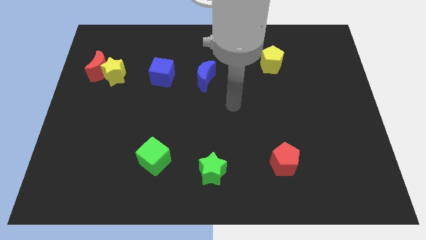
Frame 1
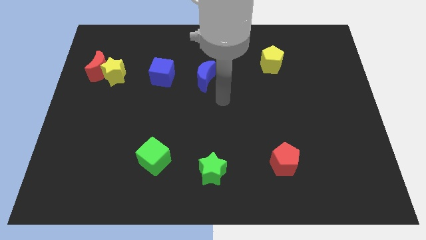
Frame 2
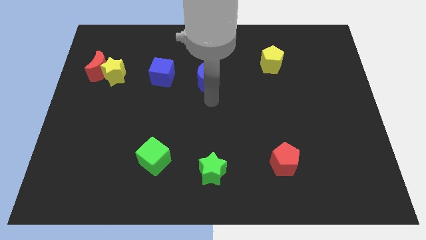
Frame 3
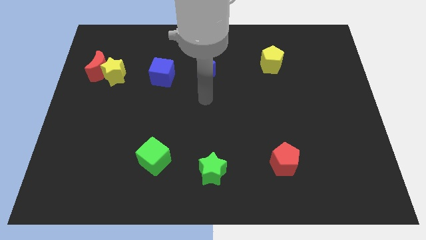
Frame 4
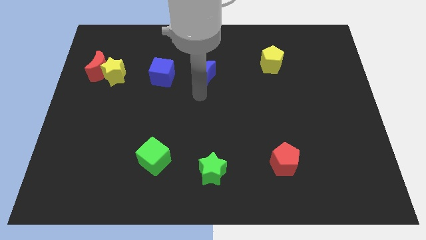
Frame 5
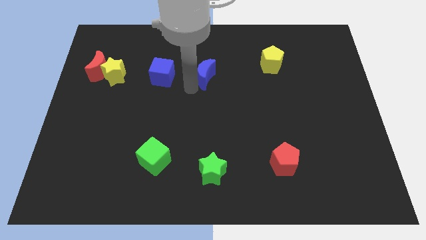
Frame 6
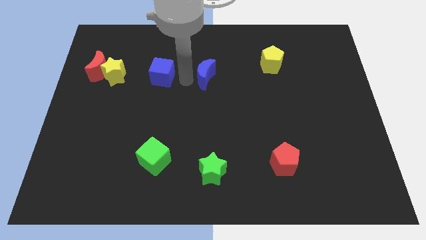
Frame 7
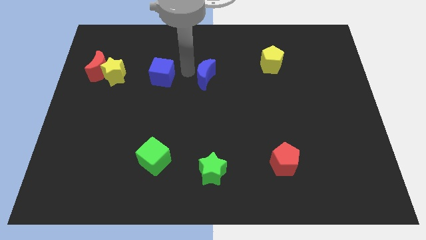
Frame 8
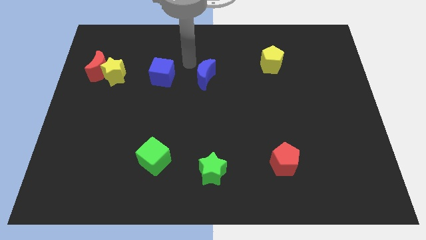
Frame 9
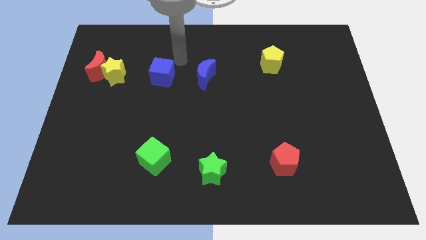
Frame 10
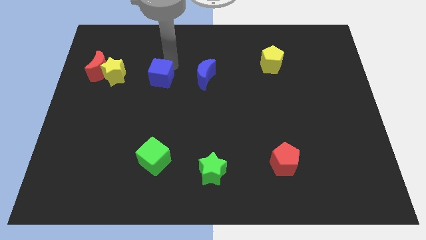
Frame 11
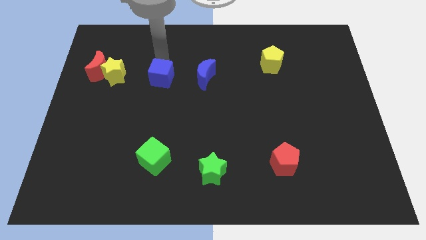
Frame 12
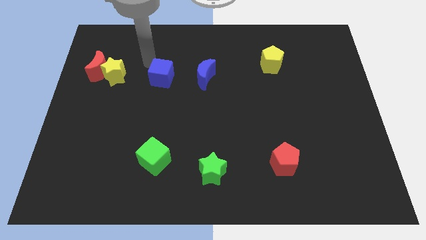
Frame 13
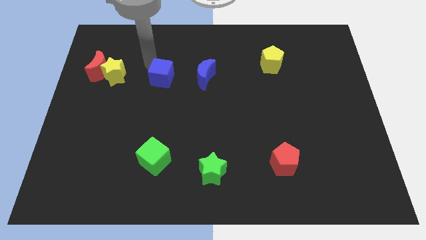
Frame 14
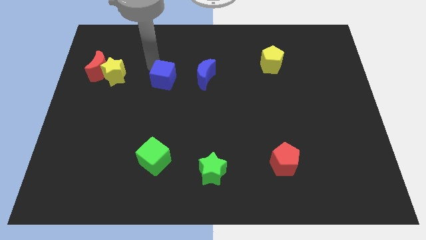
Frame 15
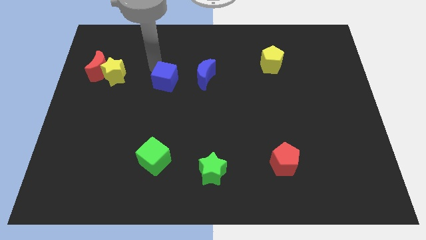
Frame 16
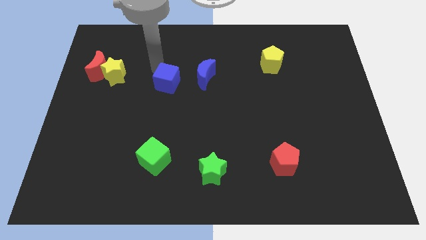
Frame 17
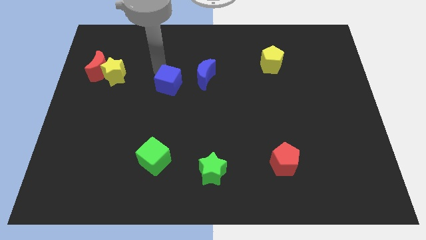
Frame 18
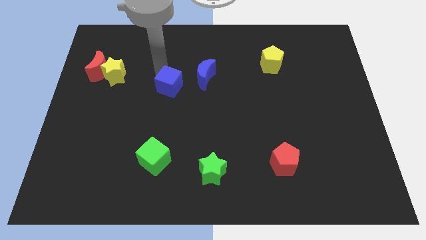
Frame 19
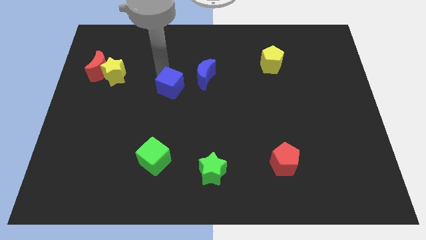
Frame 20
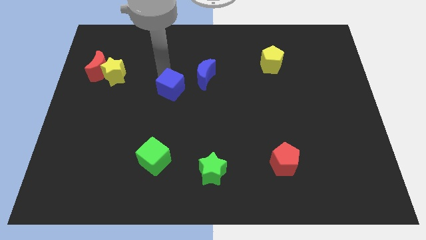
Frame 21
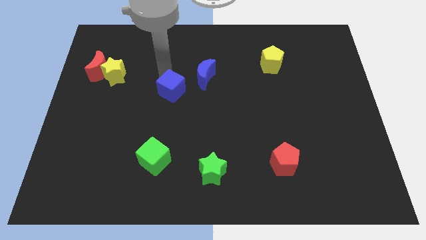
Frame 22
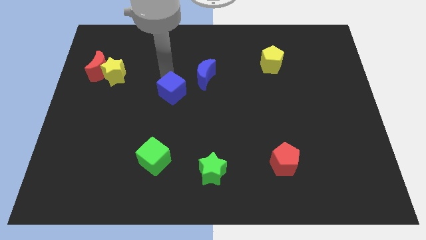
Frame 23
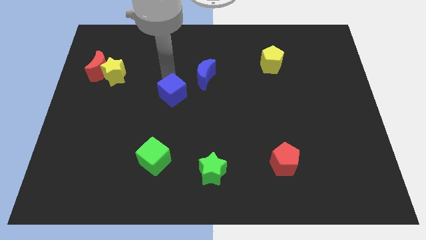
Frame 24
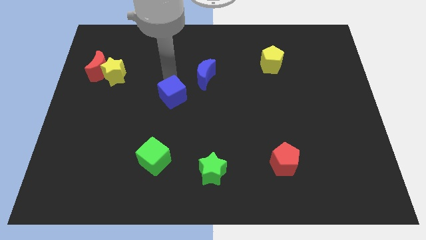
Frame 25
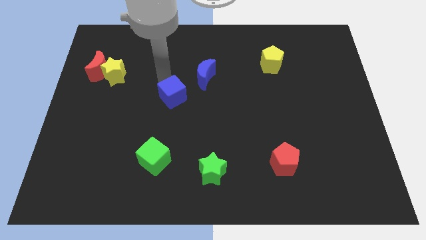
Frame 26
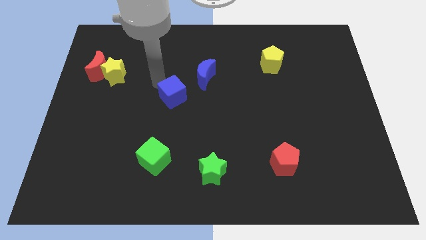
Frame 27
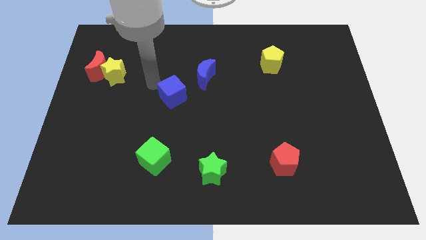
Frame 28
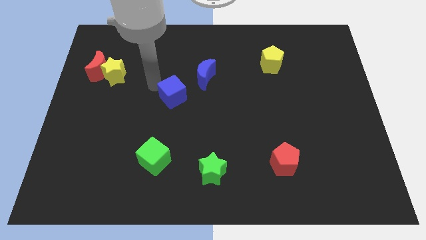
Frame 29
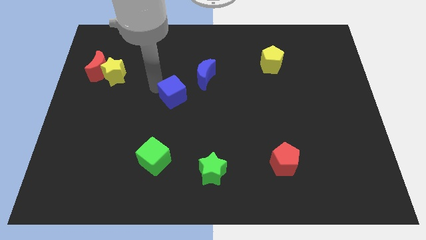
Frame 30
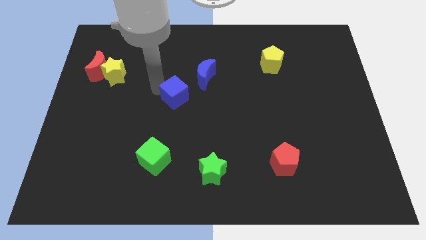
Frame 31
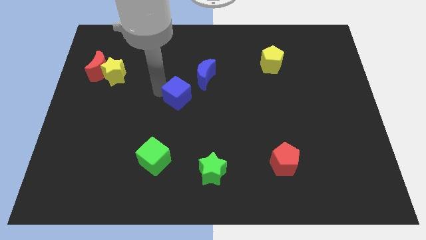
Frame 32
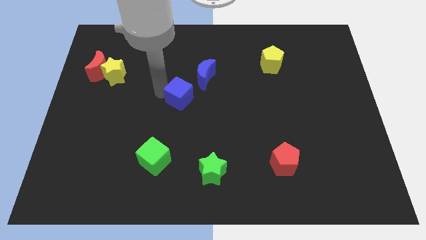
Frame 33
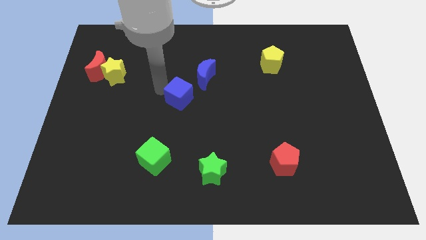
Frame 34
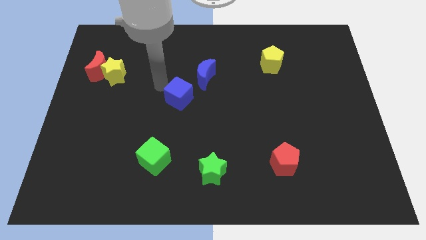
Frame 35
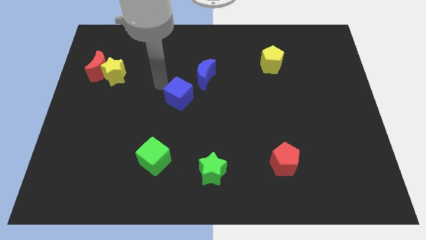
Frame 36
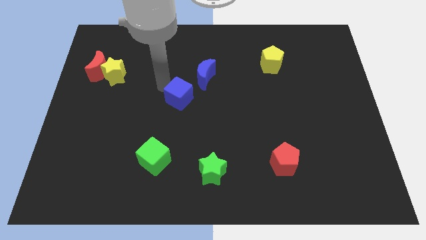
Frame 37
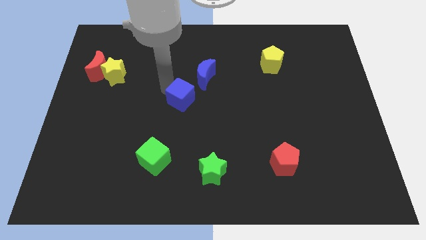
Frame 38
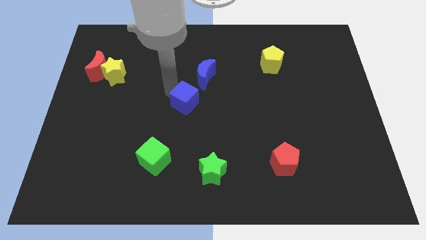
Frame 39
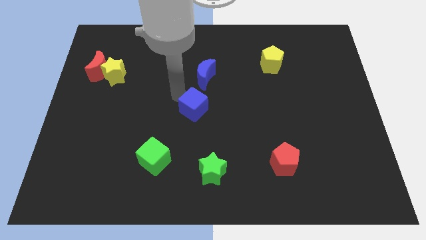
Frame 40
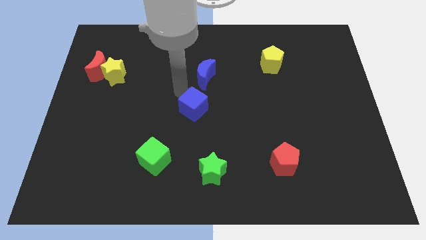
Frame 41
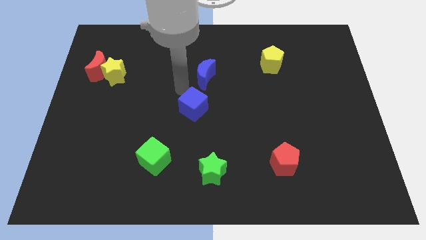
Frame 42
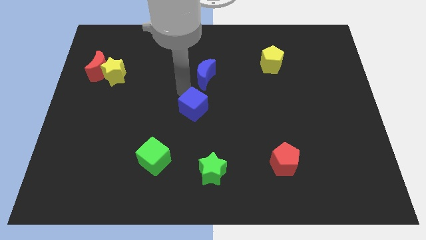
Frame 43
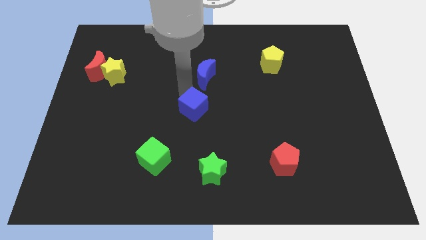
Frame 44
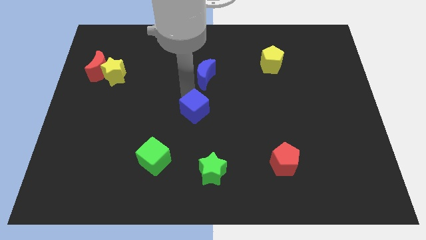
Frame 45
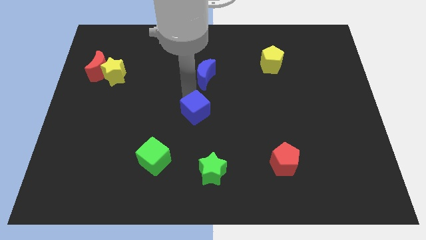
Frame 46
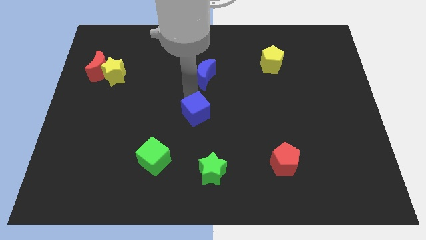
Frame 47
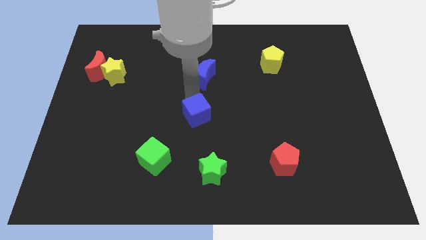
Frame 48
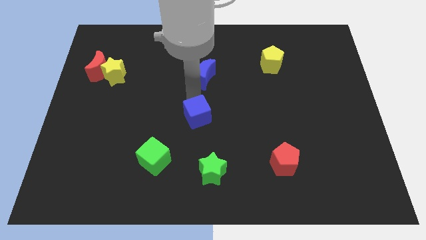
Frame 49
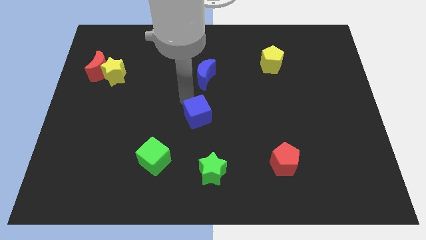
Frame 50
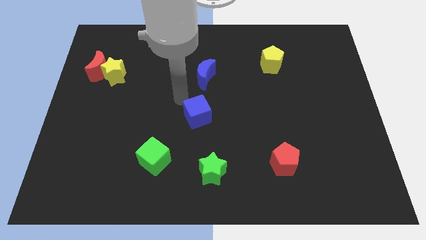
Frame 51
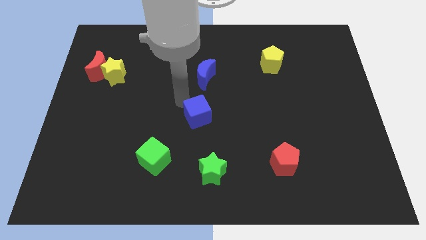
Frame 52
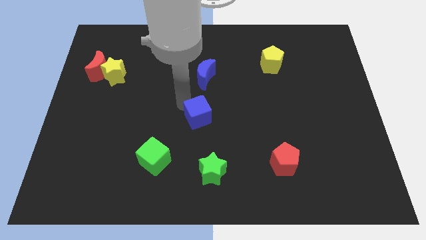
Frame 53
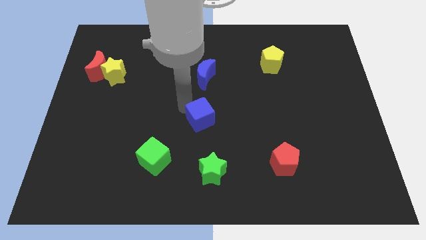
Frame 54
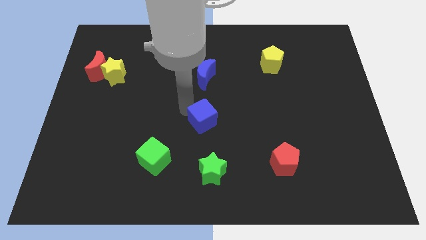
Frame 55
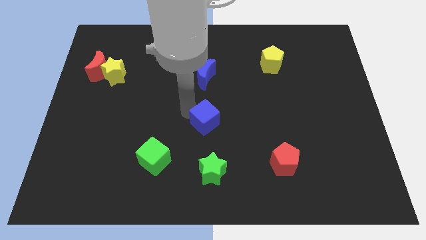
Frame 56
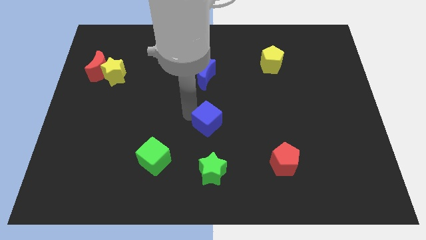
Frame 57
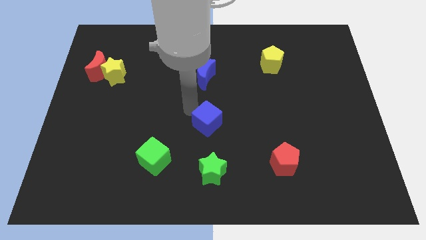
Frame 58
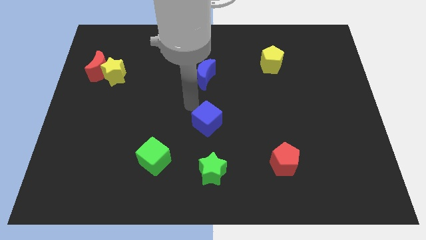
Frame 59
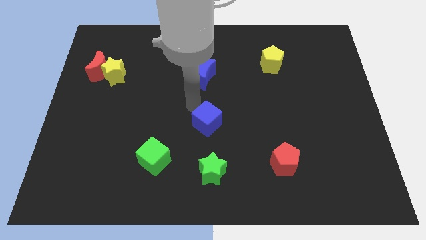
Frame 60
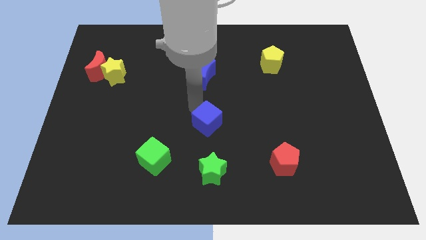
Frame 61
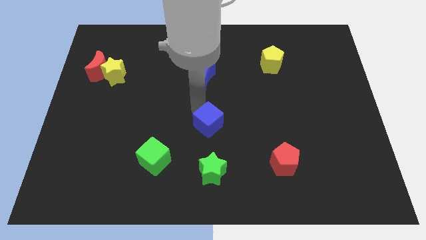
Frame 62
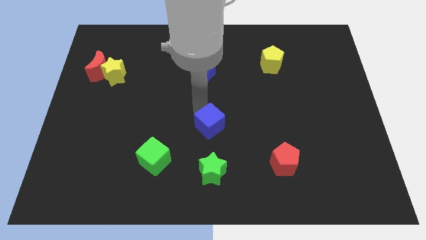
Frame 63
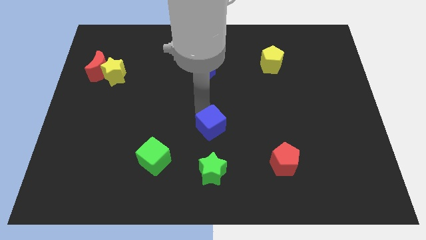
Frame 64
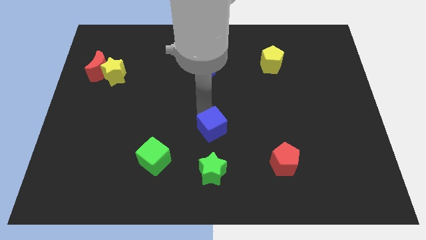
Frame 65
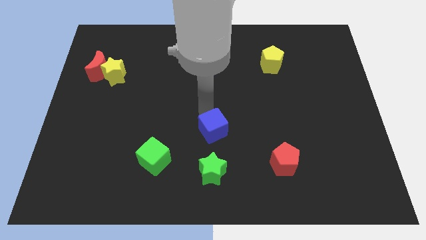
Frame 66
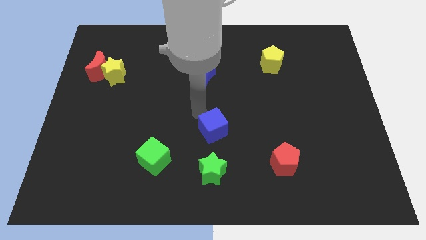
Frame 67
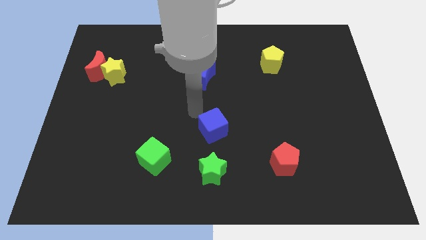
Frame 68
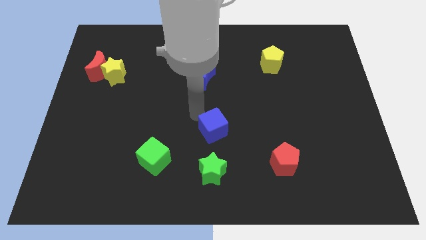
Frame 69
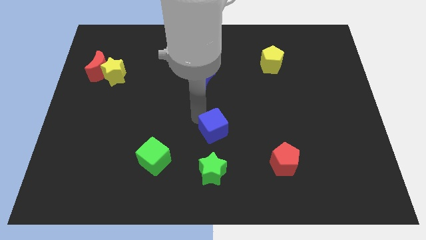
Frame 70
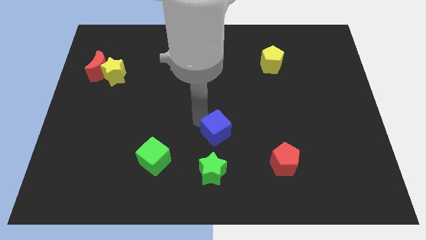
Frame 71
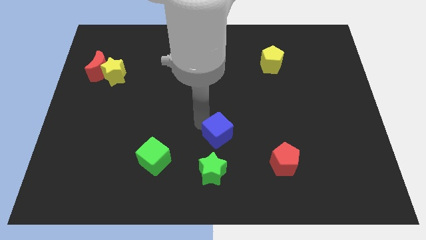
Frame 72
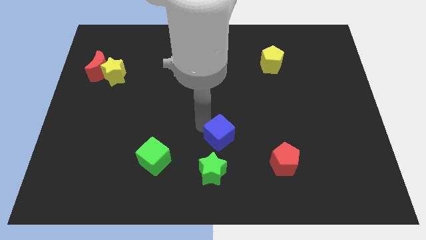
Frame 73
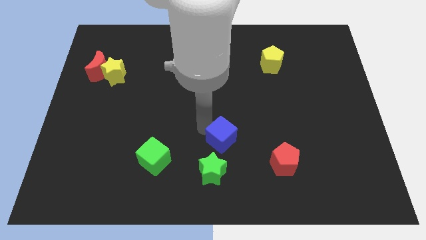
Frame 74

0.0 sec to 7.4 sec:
put the blue cube to the top right of the green star

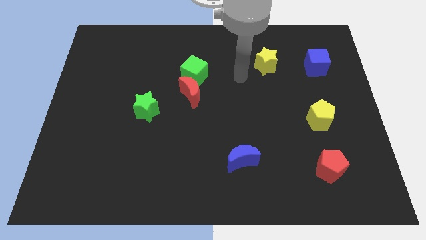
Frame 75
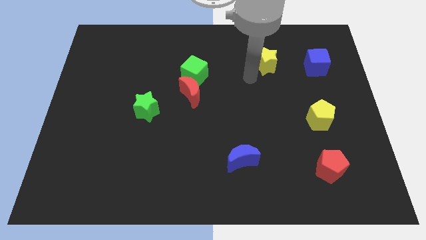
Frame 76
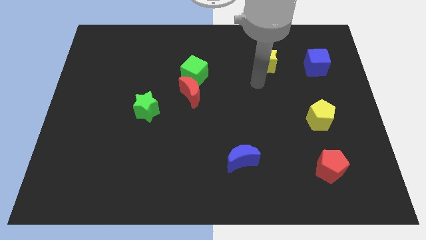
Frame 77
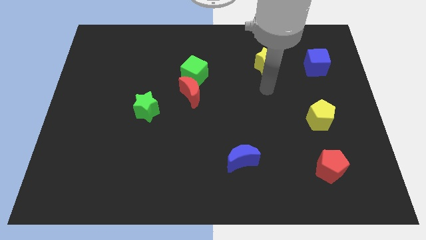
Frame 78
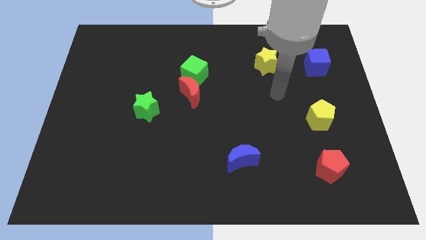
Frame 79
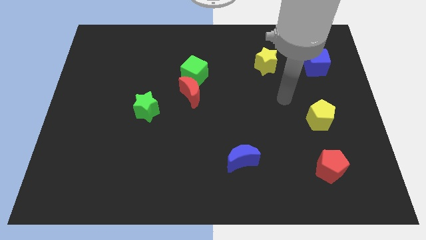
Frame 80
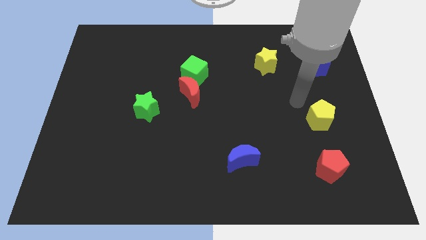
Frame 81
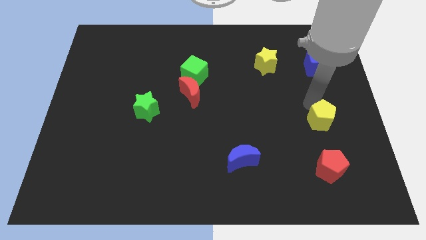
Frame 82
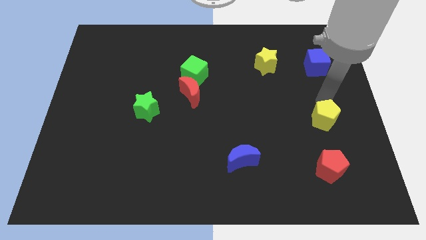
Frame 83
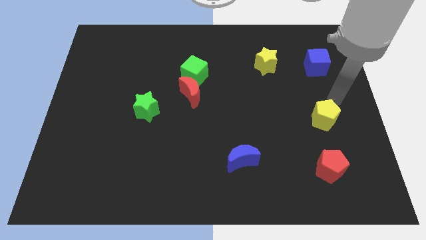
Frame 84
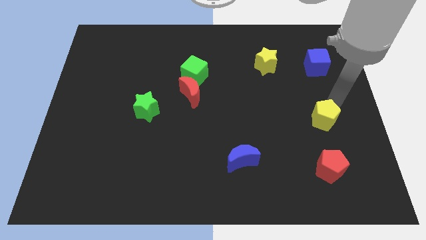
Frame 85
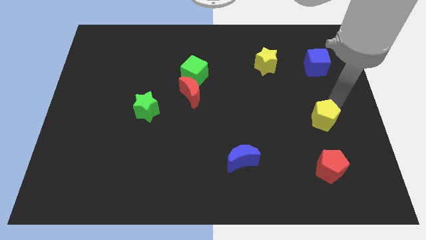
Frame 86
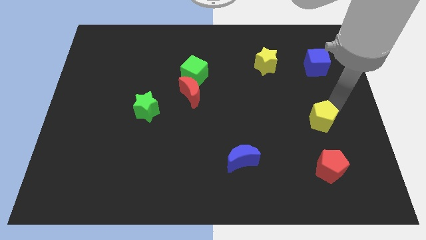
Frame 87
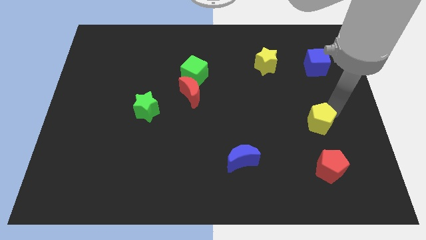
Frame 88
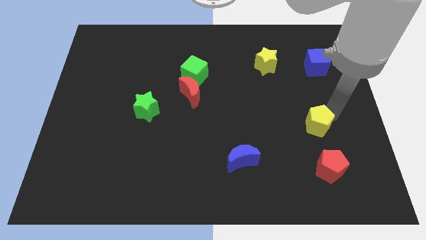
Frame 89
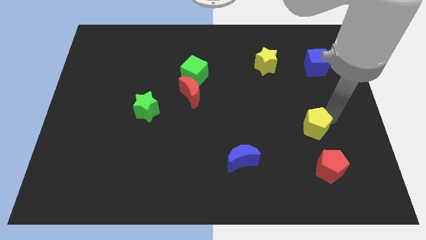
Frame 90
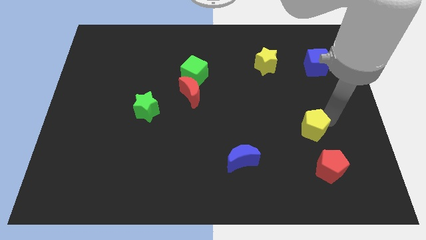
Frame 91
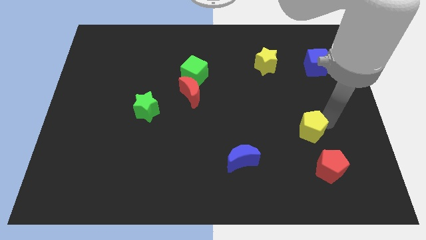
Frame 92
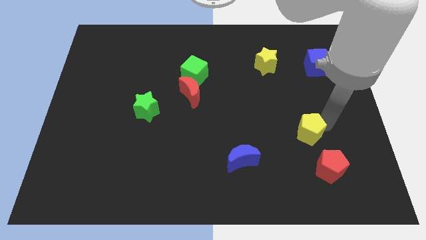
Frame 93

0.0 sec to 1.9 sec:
move the yellow pentagon to the top left side of the red pentagon
